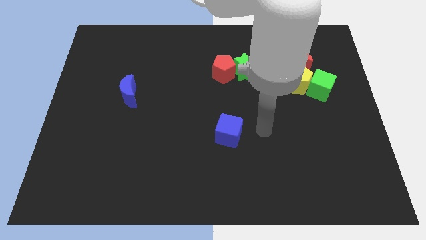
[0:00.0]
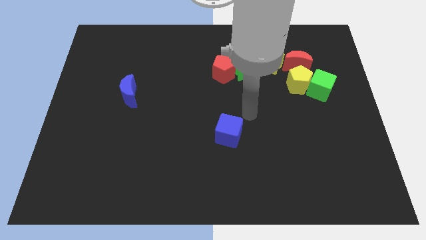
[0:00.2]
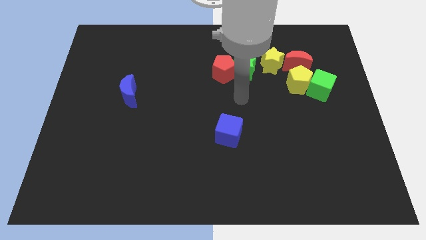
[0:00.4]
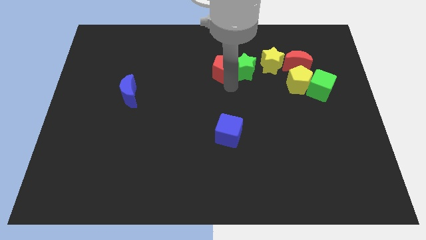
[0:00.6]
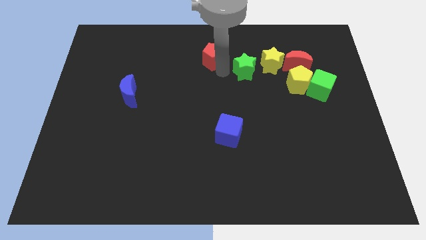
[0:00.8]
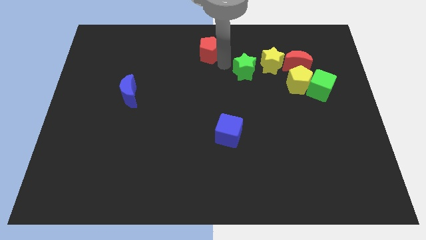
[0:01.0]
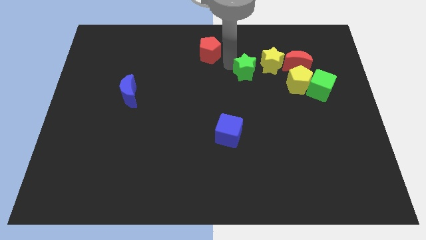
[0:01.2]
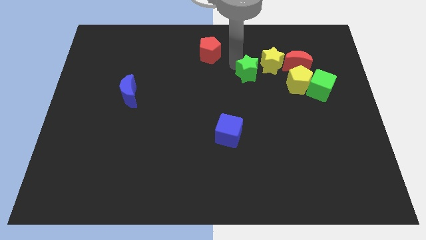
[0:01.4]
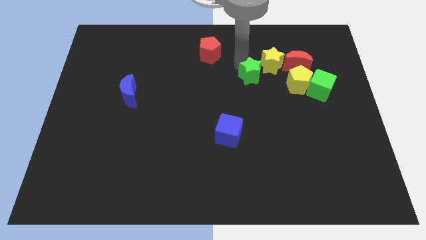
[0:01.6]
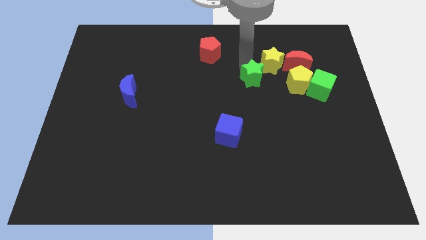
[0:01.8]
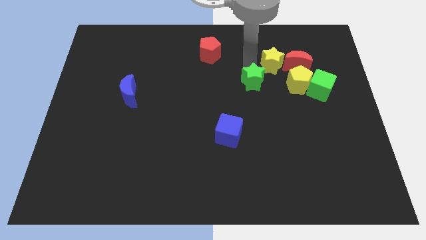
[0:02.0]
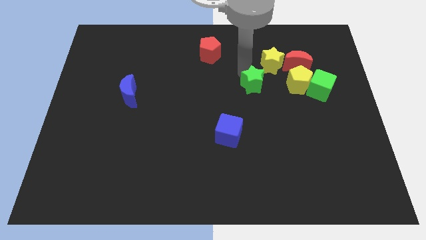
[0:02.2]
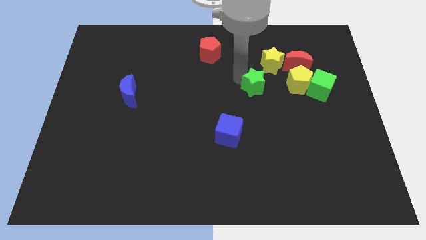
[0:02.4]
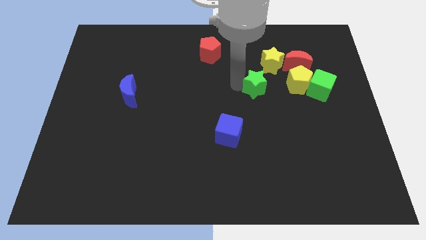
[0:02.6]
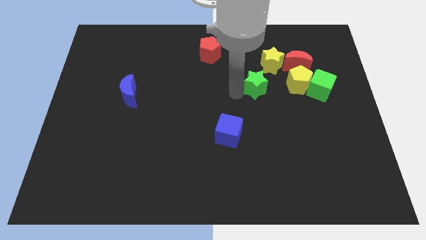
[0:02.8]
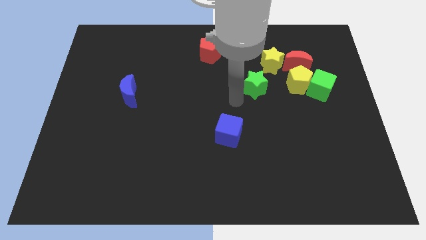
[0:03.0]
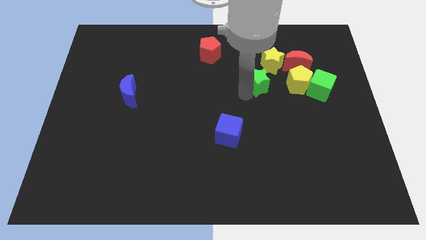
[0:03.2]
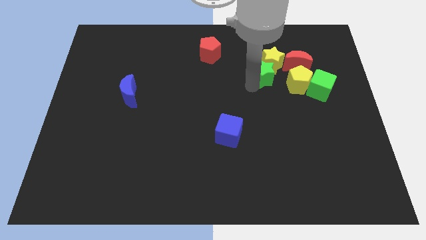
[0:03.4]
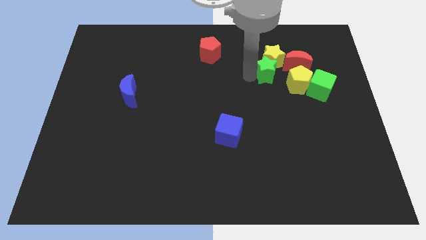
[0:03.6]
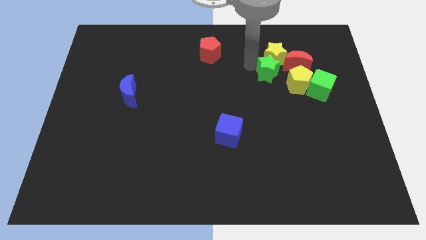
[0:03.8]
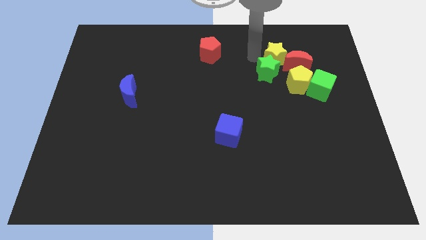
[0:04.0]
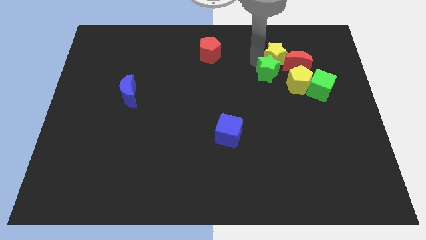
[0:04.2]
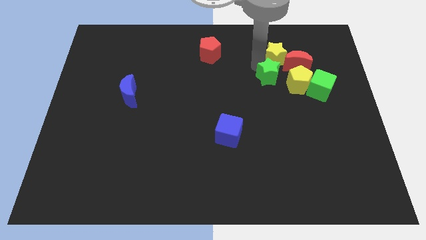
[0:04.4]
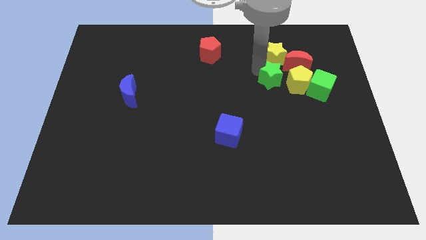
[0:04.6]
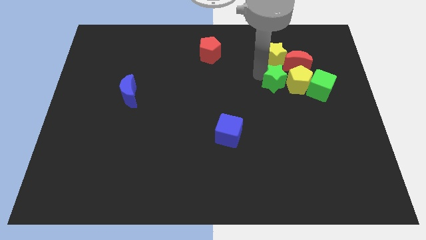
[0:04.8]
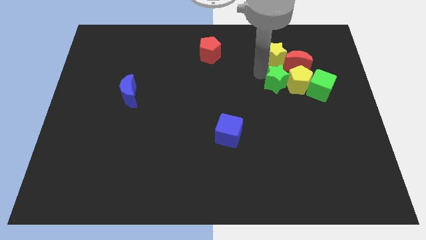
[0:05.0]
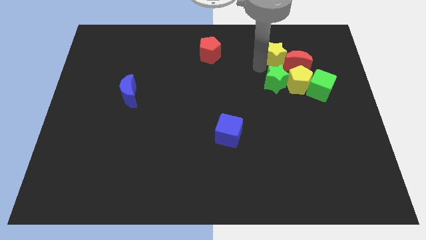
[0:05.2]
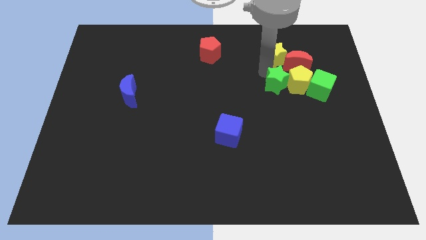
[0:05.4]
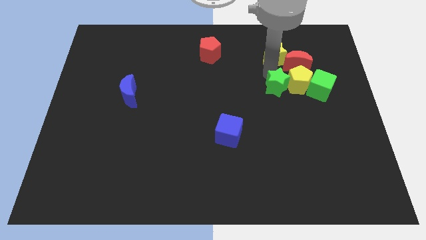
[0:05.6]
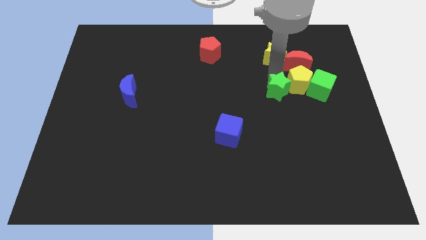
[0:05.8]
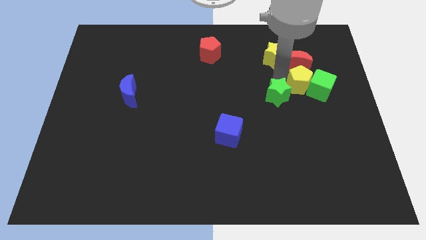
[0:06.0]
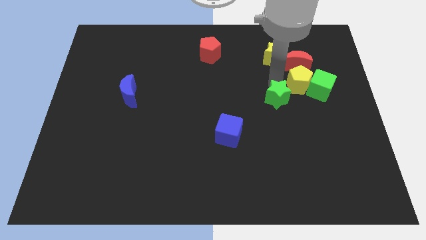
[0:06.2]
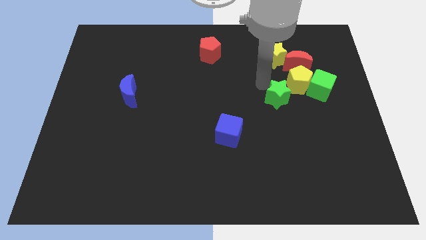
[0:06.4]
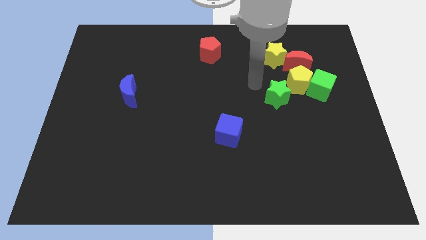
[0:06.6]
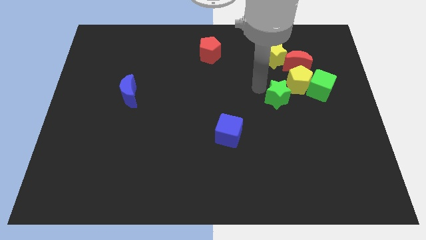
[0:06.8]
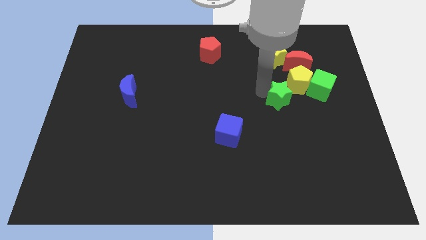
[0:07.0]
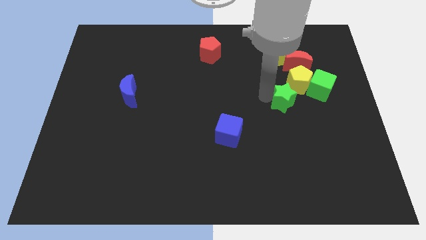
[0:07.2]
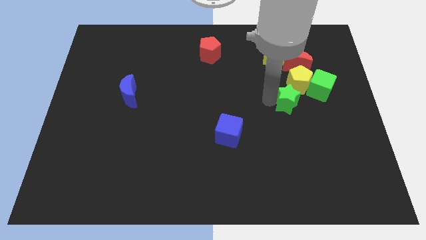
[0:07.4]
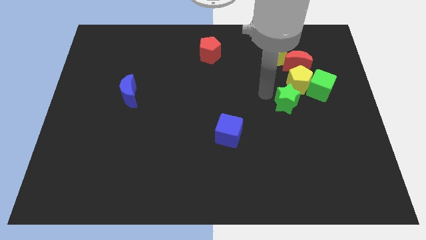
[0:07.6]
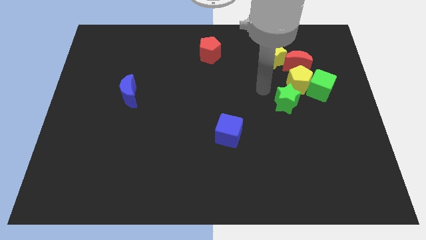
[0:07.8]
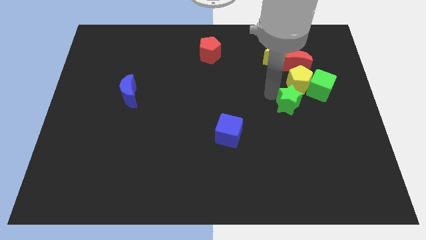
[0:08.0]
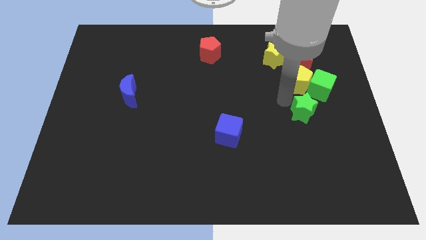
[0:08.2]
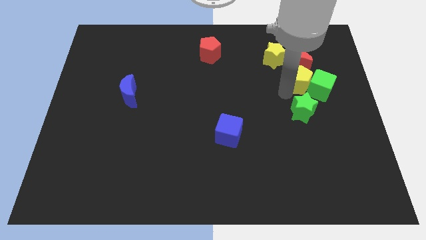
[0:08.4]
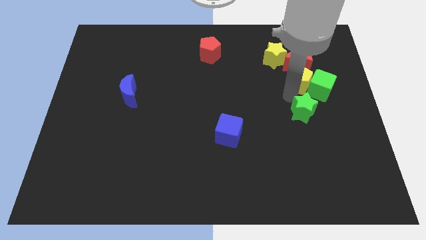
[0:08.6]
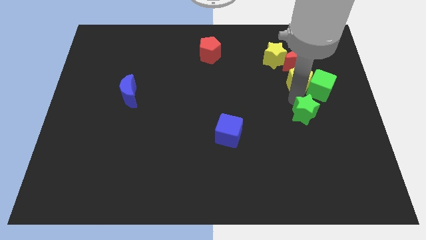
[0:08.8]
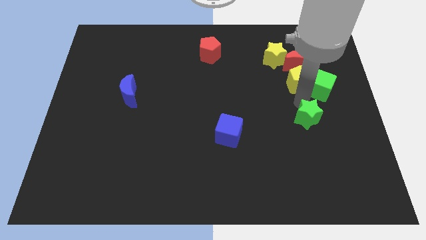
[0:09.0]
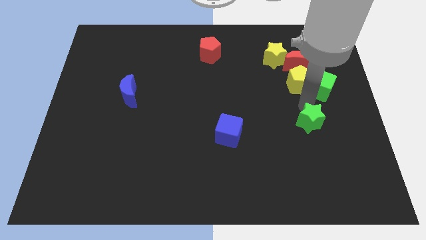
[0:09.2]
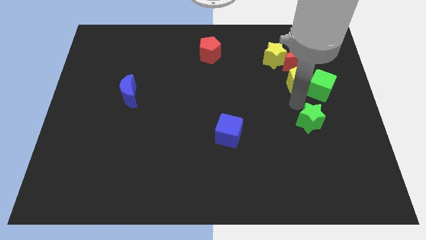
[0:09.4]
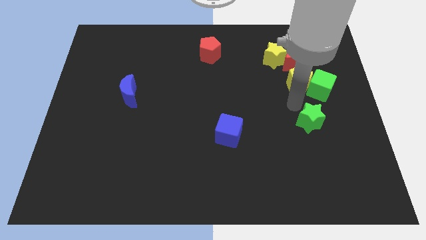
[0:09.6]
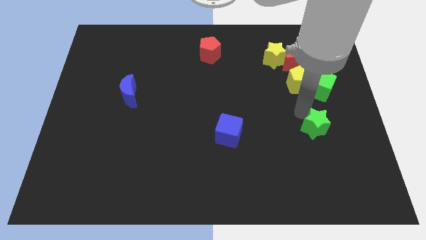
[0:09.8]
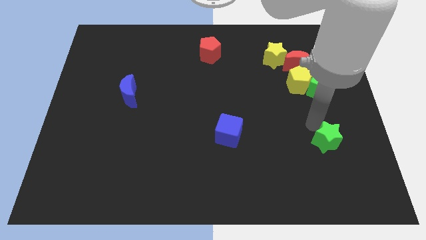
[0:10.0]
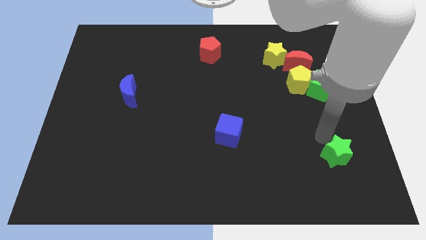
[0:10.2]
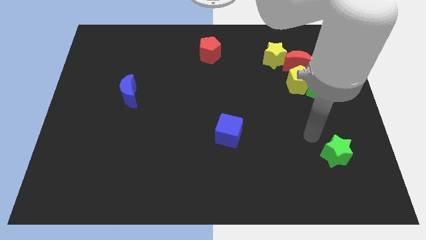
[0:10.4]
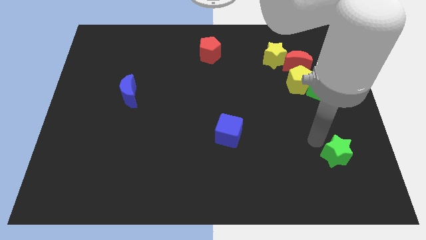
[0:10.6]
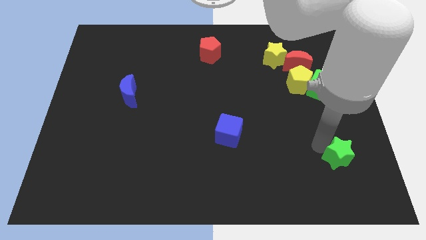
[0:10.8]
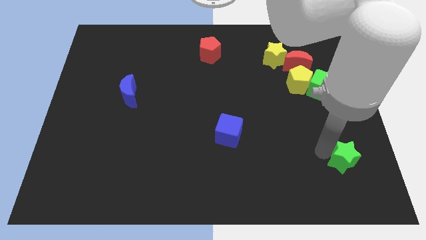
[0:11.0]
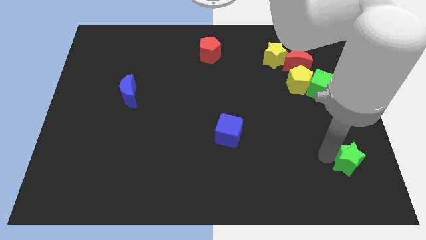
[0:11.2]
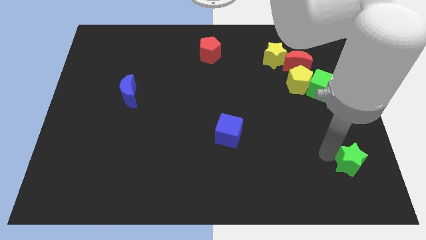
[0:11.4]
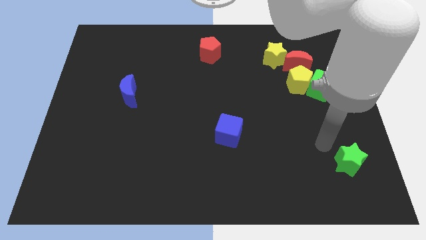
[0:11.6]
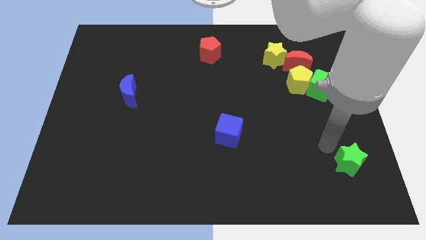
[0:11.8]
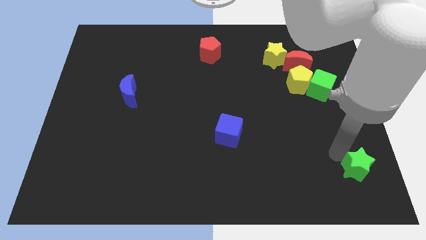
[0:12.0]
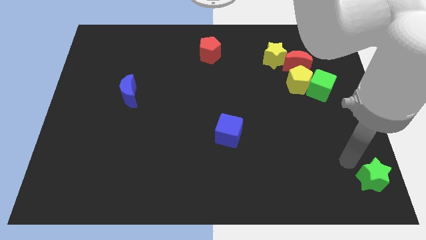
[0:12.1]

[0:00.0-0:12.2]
move the green star to the lower right corner
